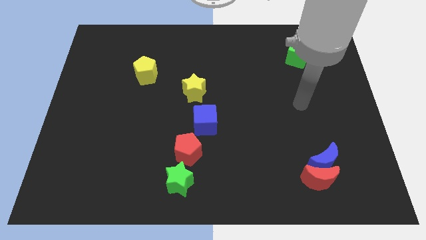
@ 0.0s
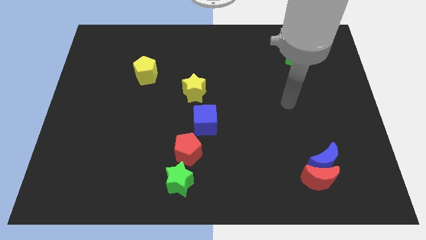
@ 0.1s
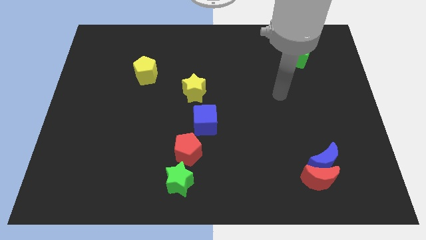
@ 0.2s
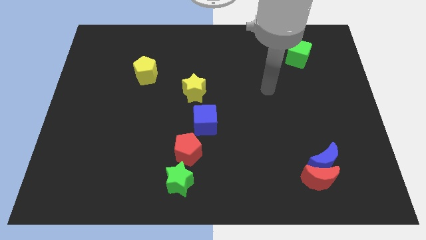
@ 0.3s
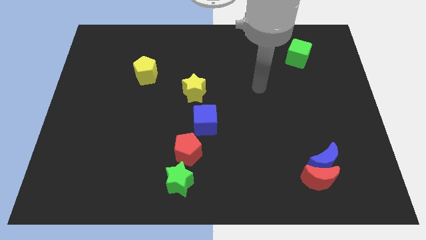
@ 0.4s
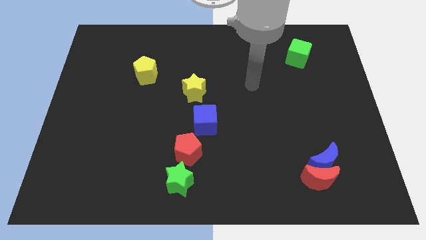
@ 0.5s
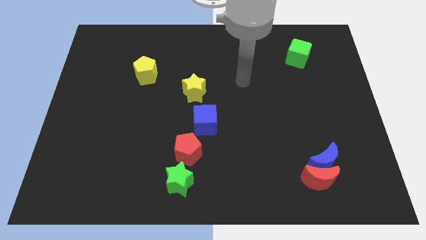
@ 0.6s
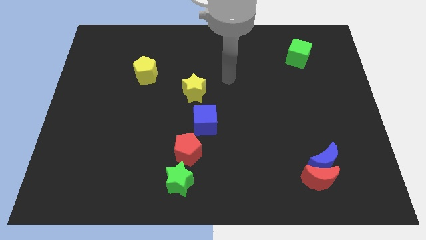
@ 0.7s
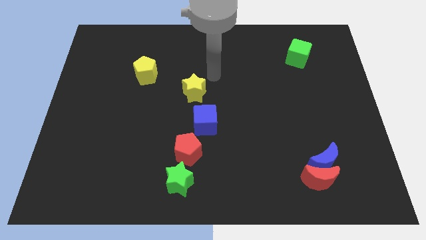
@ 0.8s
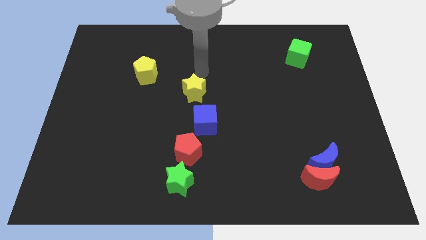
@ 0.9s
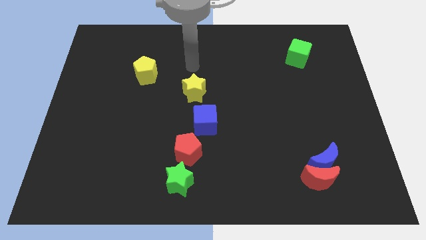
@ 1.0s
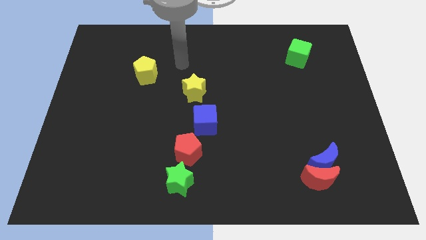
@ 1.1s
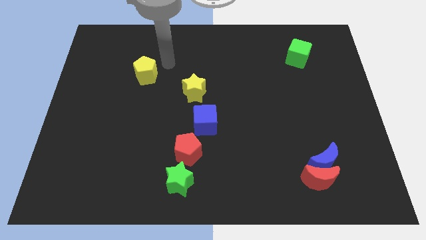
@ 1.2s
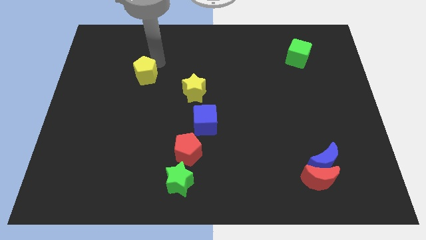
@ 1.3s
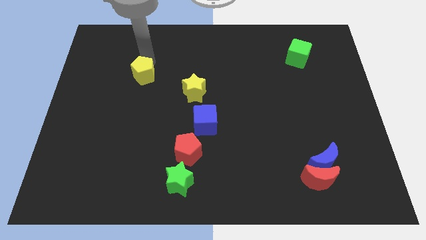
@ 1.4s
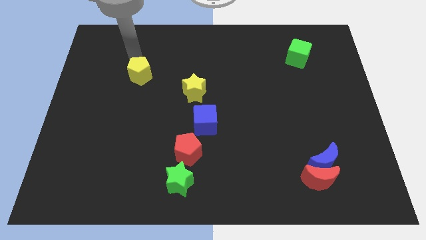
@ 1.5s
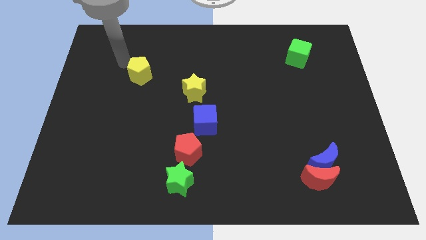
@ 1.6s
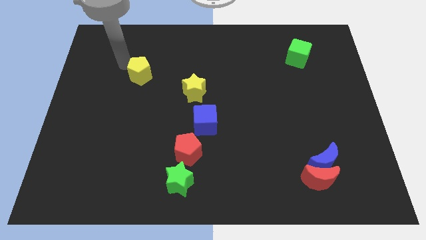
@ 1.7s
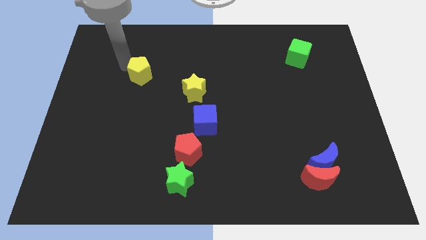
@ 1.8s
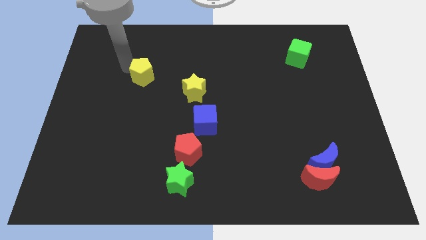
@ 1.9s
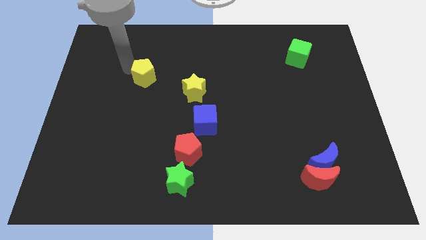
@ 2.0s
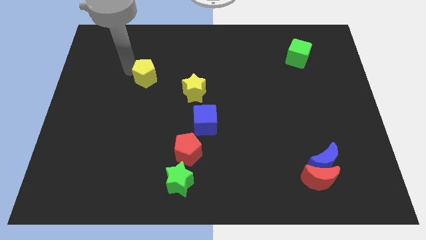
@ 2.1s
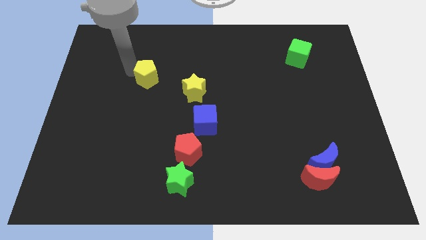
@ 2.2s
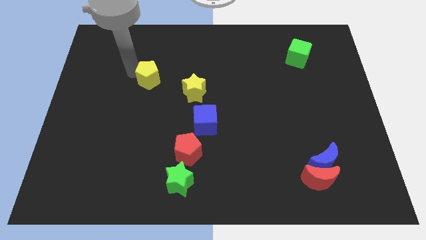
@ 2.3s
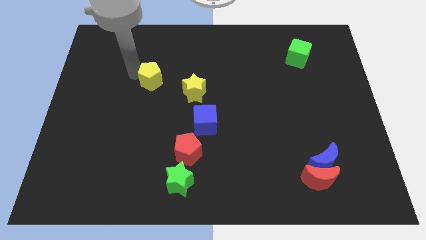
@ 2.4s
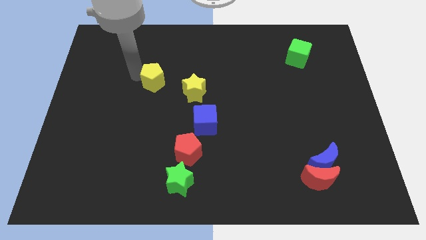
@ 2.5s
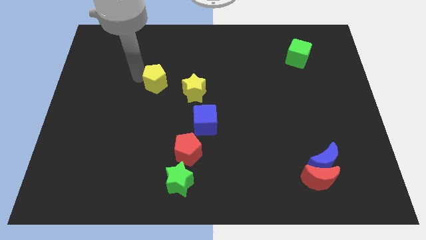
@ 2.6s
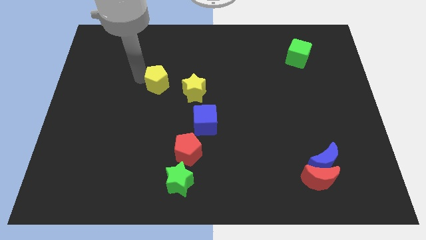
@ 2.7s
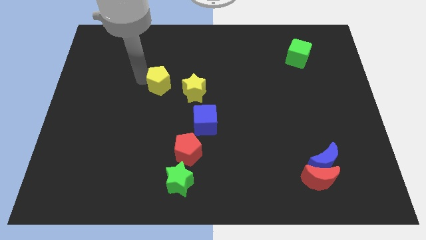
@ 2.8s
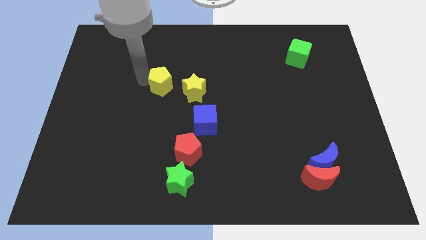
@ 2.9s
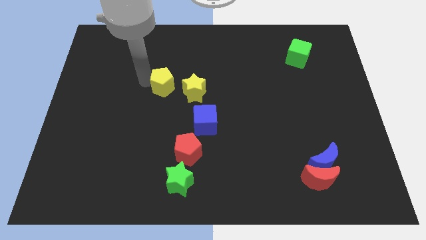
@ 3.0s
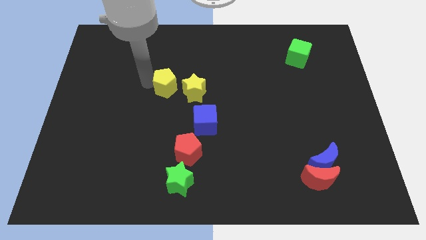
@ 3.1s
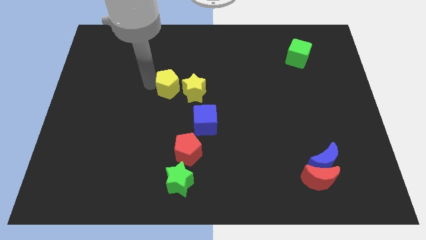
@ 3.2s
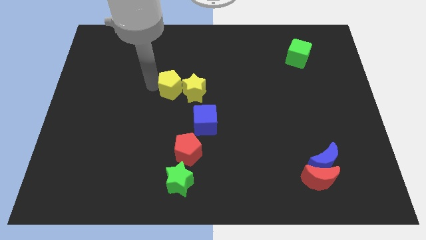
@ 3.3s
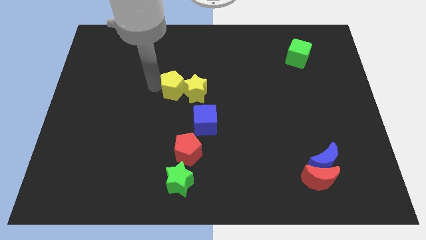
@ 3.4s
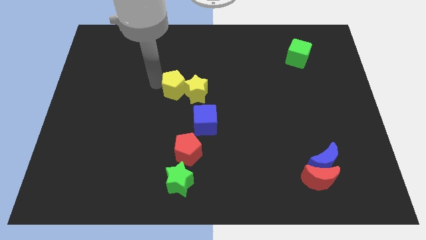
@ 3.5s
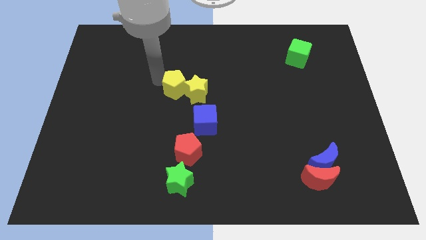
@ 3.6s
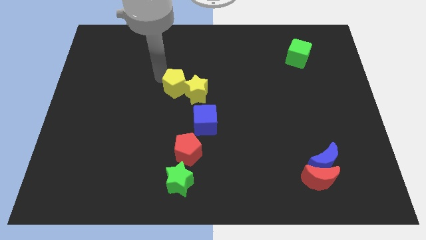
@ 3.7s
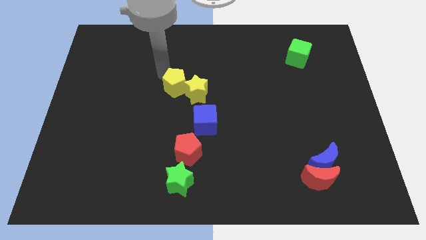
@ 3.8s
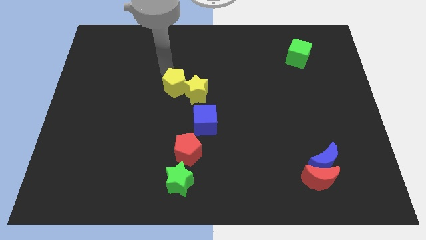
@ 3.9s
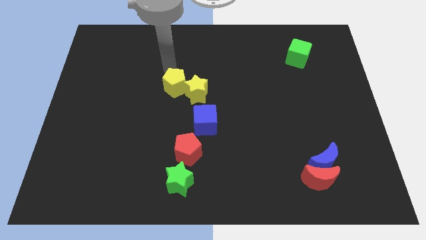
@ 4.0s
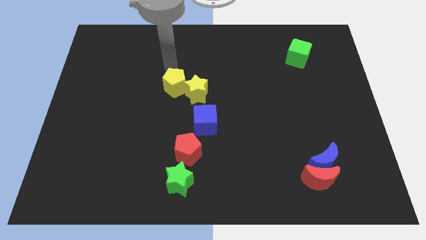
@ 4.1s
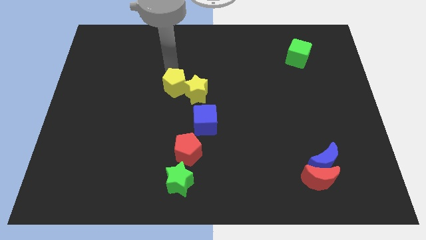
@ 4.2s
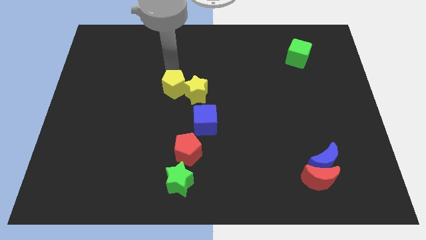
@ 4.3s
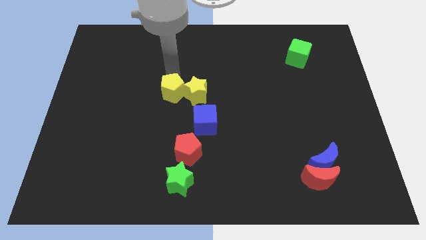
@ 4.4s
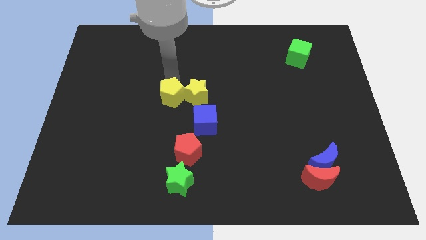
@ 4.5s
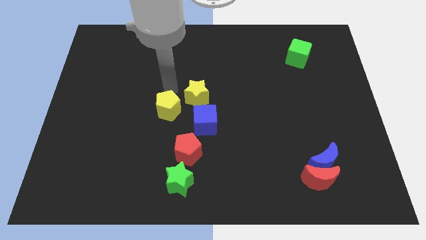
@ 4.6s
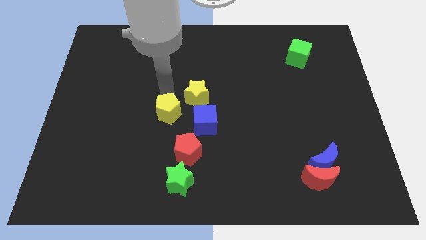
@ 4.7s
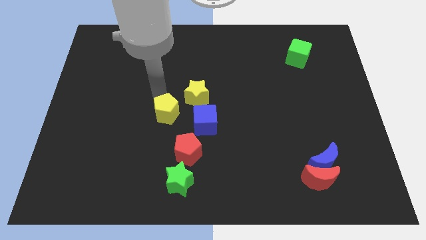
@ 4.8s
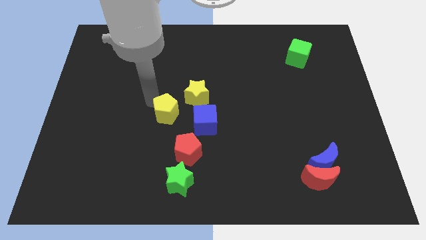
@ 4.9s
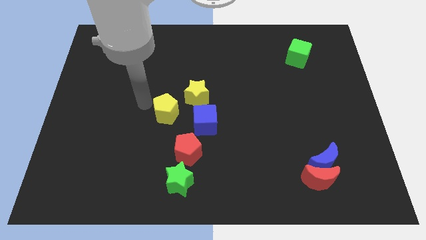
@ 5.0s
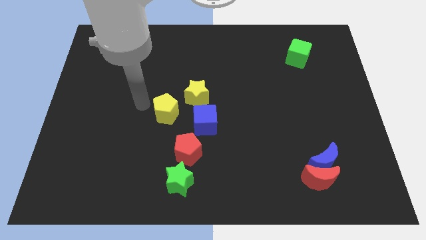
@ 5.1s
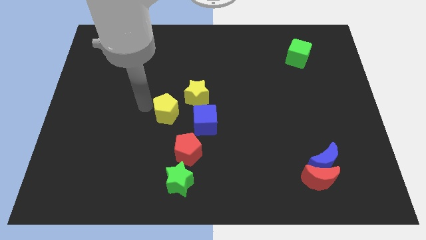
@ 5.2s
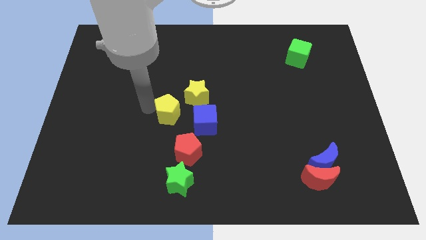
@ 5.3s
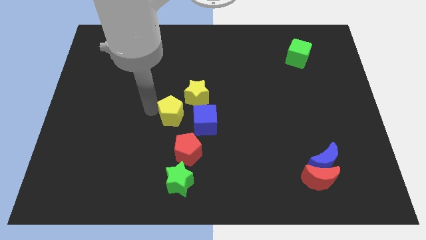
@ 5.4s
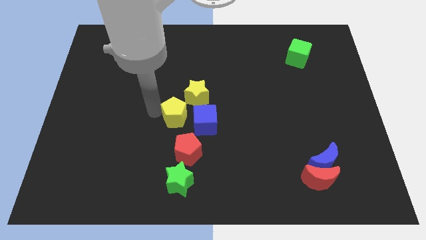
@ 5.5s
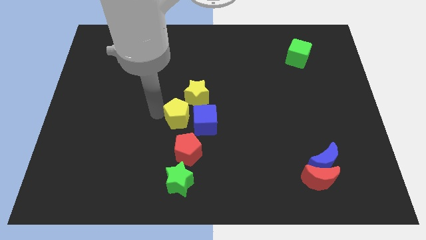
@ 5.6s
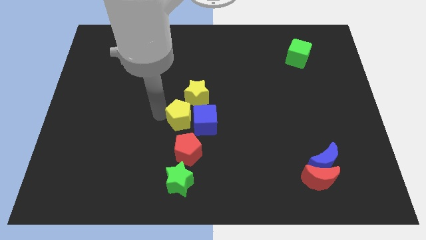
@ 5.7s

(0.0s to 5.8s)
put the yellow pentagon towards the blue cube

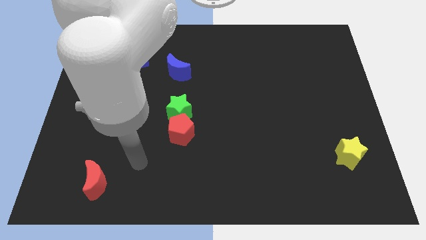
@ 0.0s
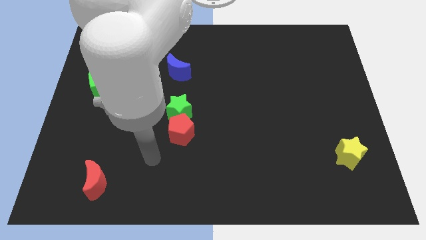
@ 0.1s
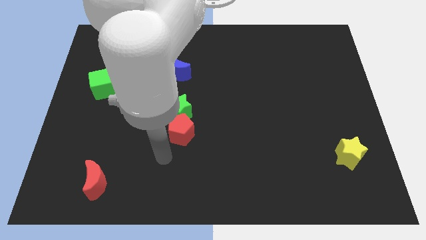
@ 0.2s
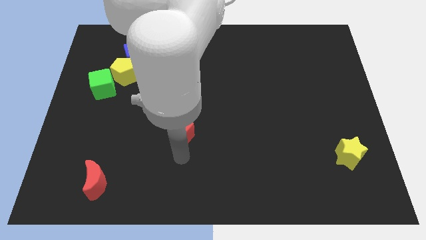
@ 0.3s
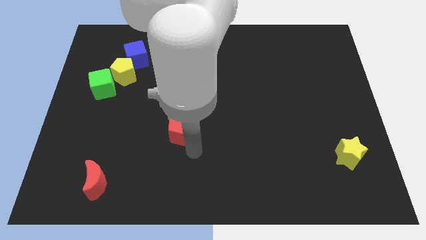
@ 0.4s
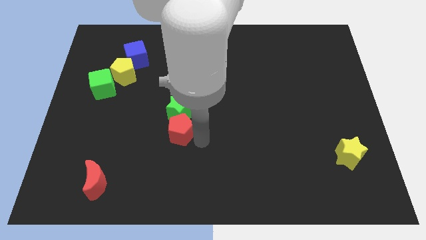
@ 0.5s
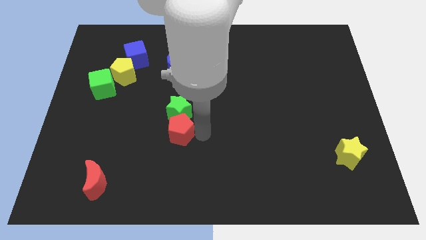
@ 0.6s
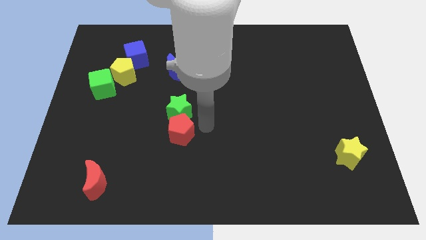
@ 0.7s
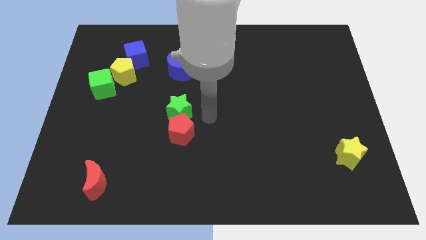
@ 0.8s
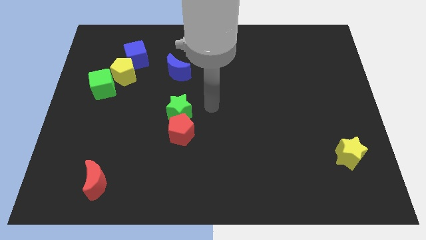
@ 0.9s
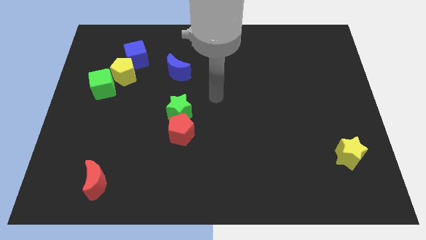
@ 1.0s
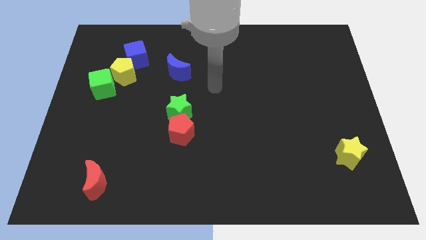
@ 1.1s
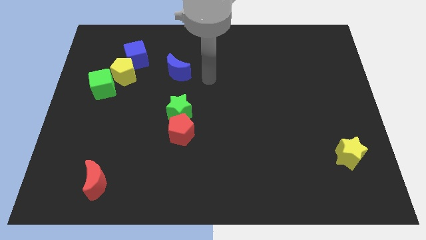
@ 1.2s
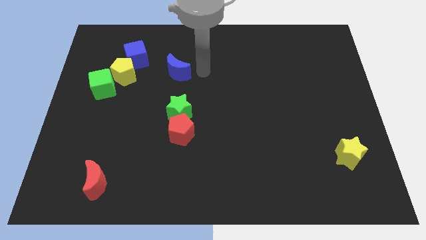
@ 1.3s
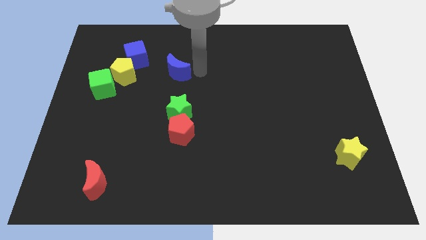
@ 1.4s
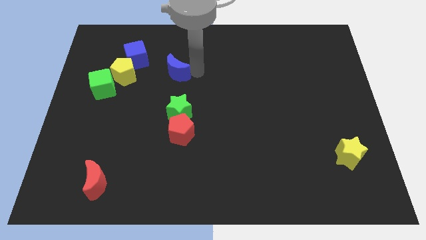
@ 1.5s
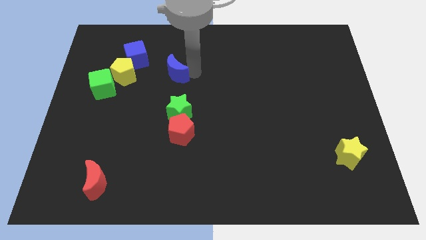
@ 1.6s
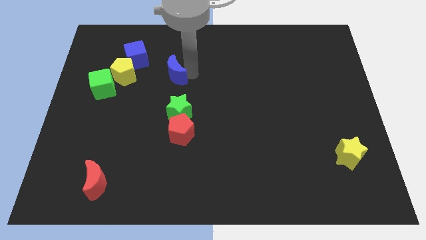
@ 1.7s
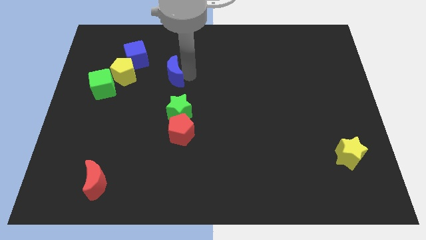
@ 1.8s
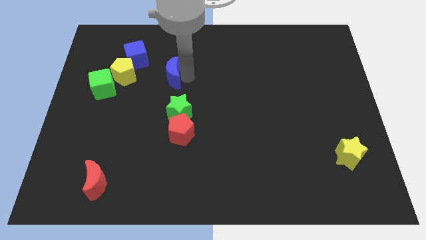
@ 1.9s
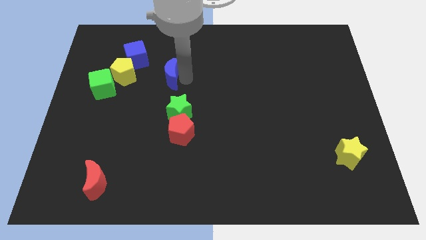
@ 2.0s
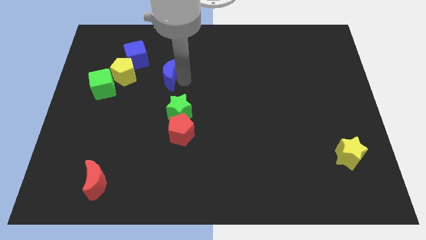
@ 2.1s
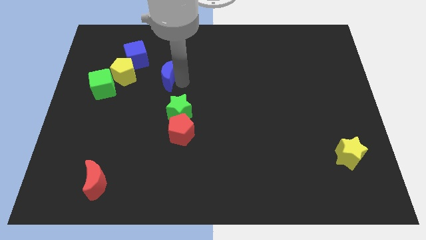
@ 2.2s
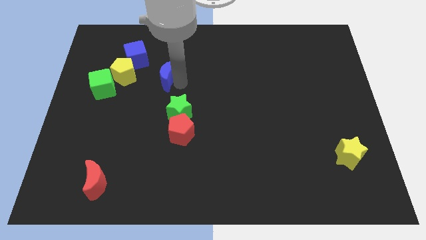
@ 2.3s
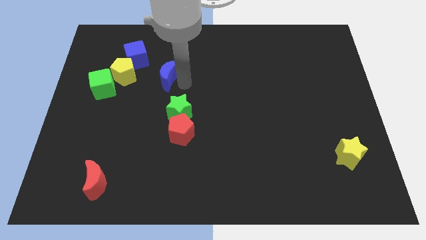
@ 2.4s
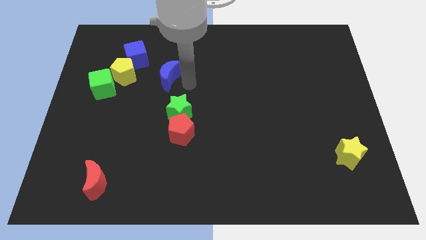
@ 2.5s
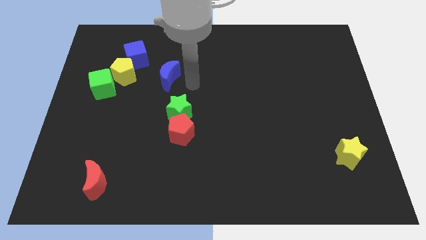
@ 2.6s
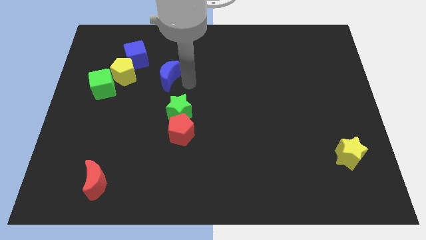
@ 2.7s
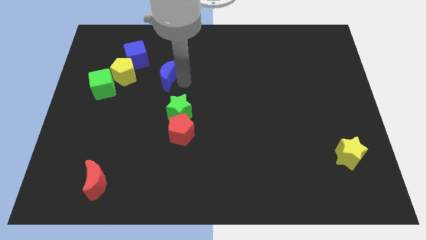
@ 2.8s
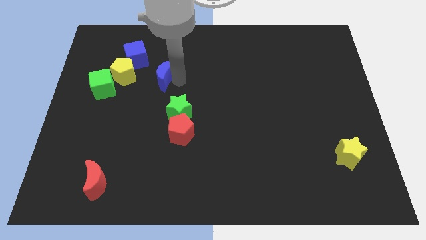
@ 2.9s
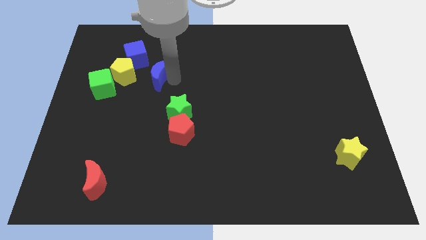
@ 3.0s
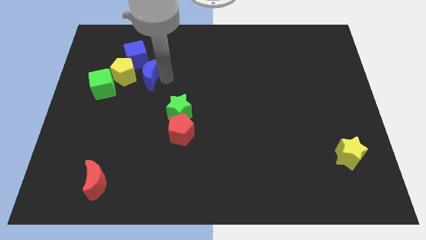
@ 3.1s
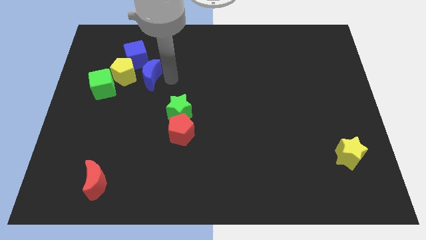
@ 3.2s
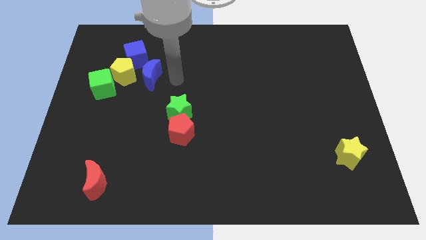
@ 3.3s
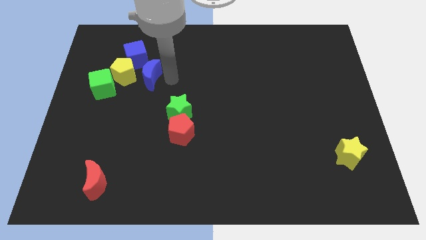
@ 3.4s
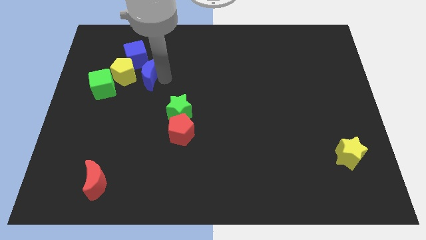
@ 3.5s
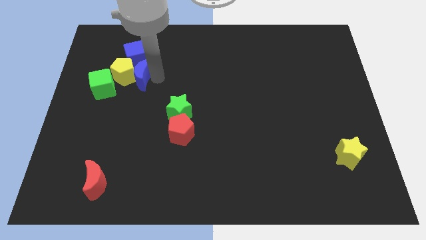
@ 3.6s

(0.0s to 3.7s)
put the blue moon close to the yellow pentagon
